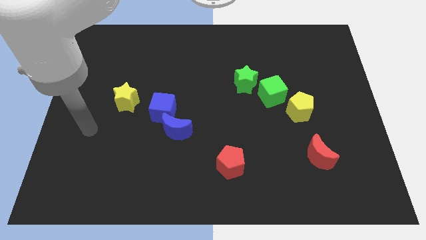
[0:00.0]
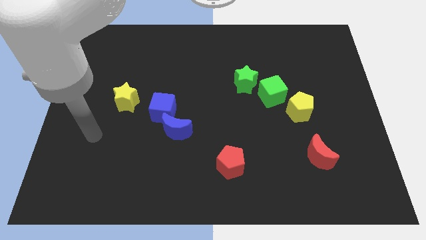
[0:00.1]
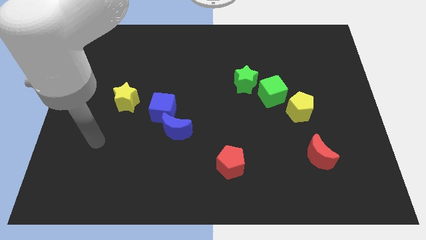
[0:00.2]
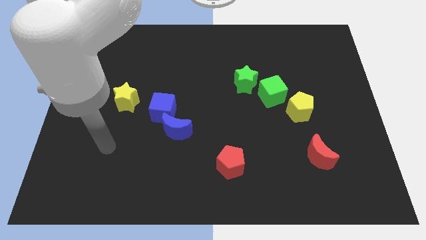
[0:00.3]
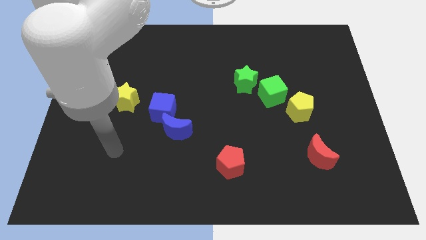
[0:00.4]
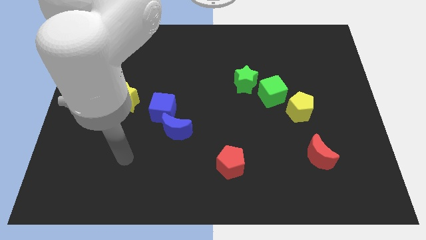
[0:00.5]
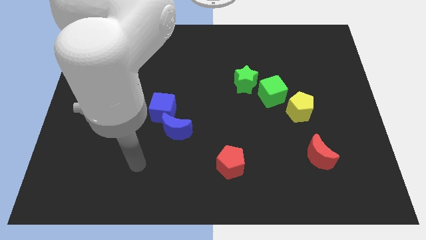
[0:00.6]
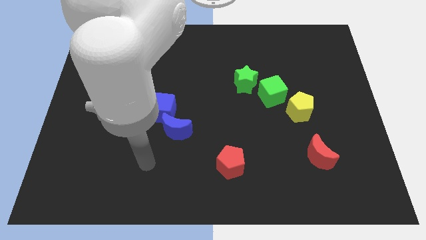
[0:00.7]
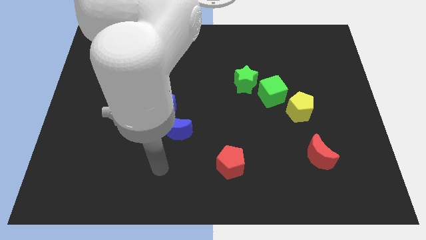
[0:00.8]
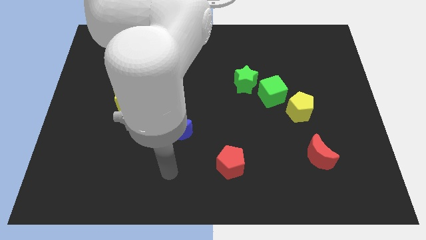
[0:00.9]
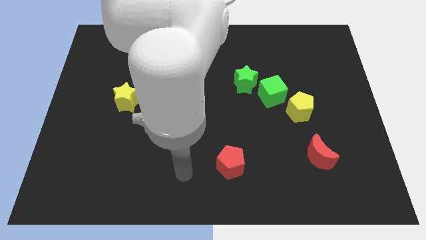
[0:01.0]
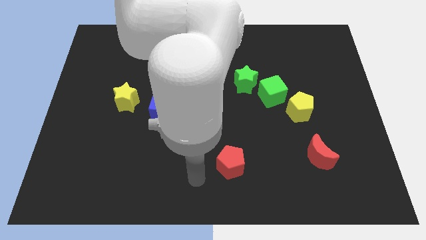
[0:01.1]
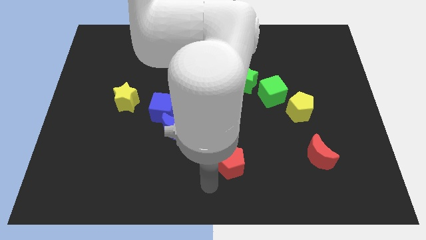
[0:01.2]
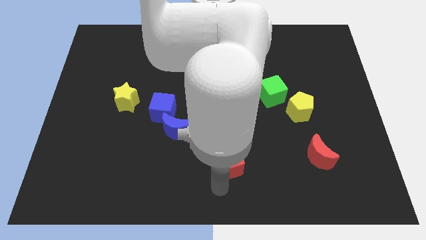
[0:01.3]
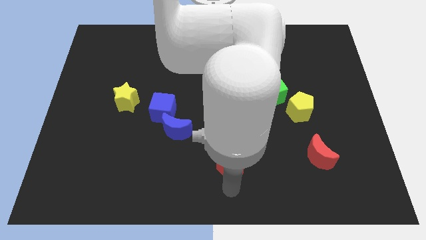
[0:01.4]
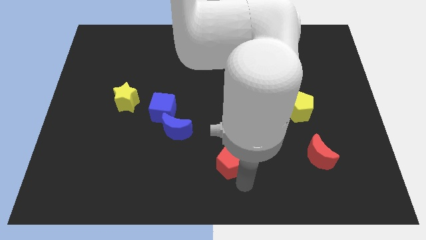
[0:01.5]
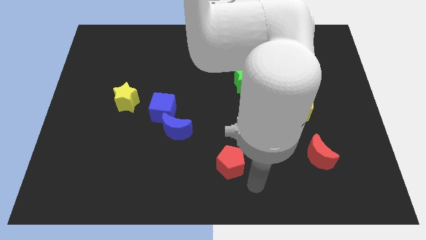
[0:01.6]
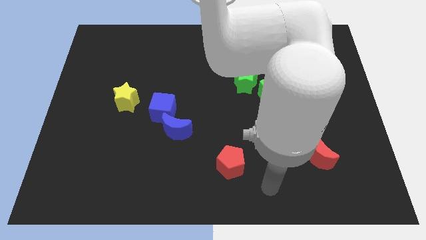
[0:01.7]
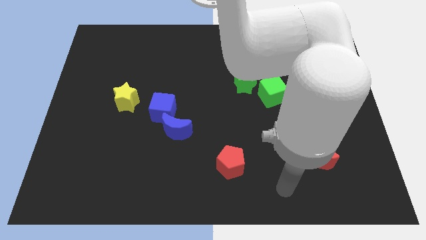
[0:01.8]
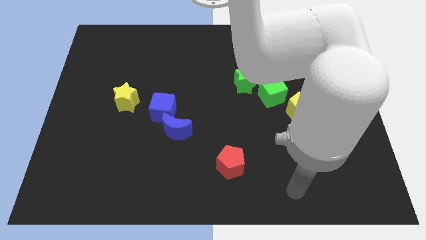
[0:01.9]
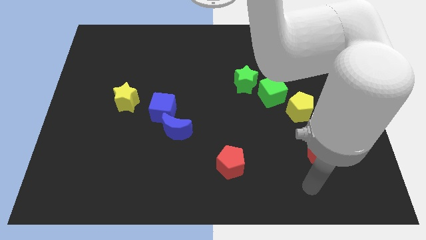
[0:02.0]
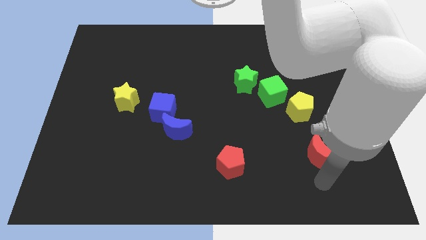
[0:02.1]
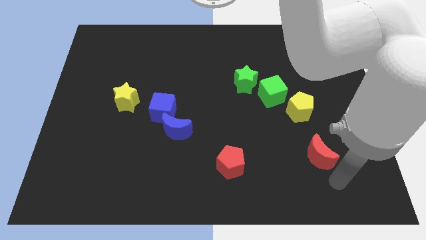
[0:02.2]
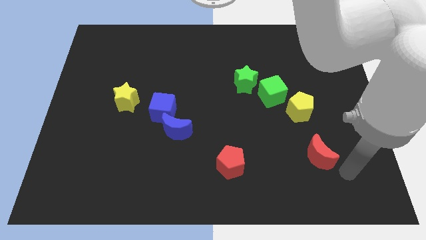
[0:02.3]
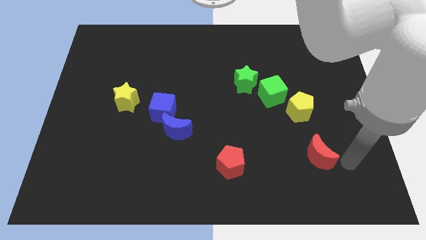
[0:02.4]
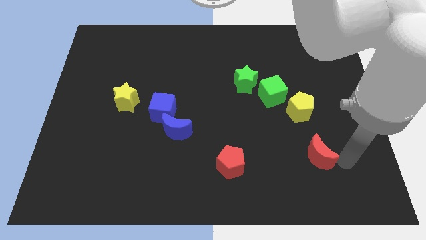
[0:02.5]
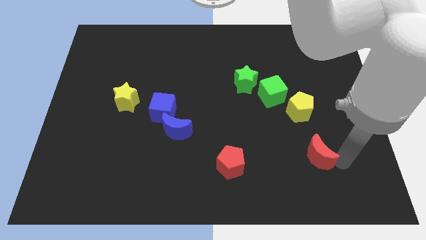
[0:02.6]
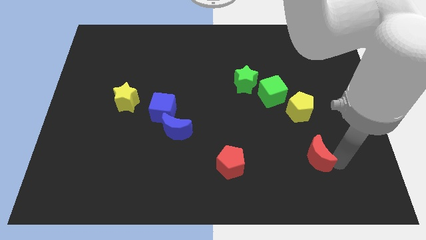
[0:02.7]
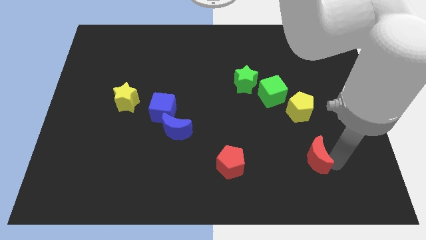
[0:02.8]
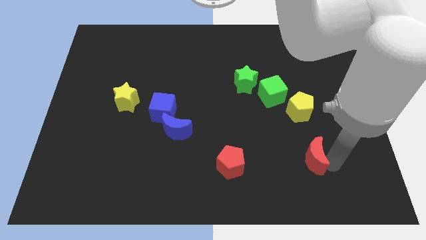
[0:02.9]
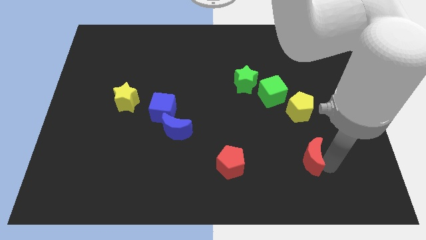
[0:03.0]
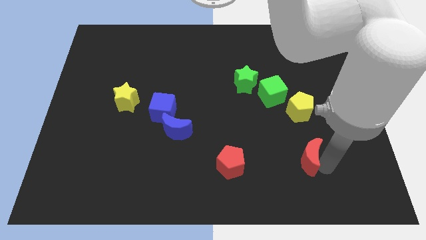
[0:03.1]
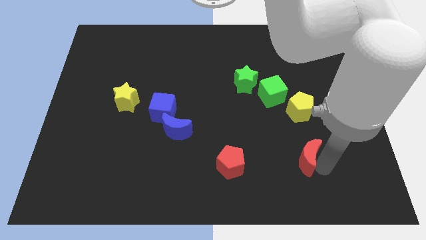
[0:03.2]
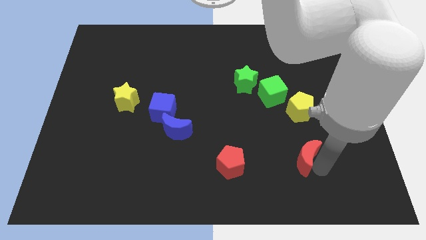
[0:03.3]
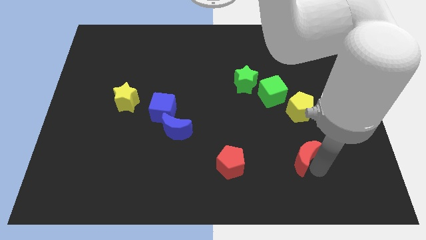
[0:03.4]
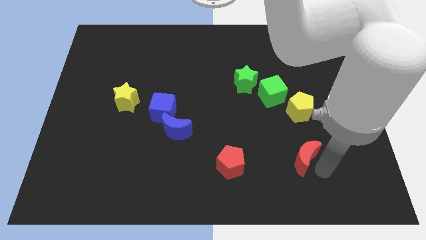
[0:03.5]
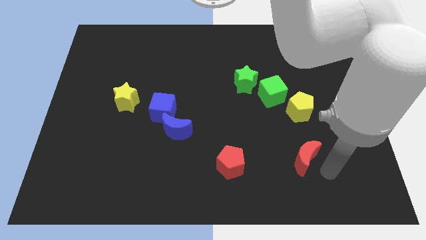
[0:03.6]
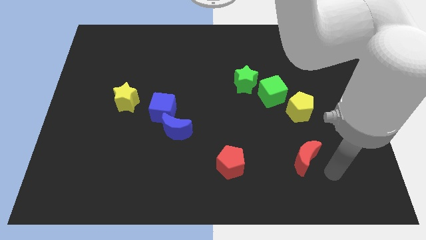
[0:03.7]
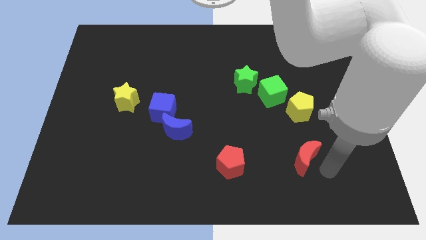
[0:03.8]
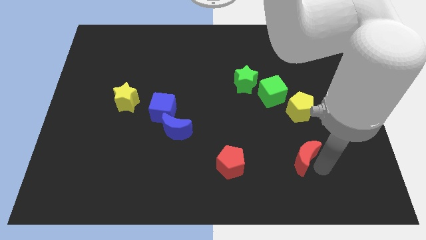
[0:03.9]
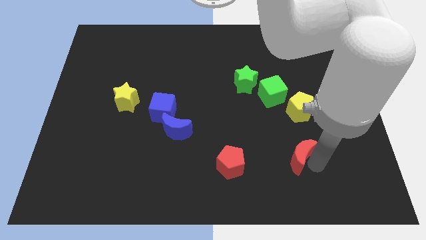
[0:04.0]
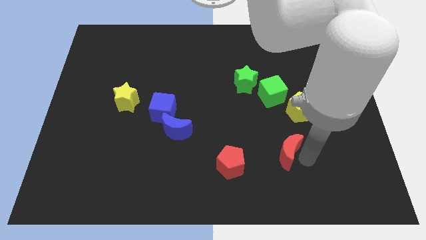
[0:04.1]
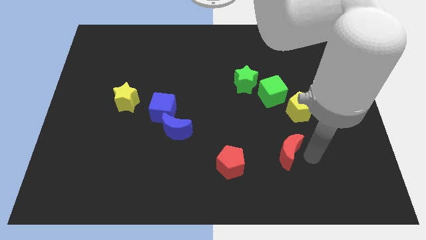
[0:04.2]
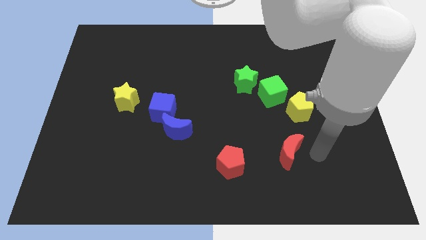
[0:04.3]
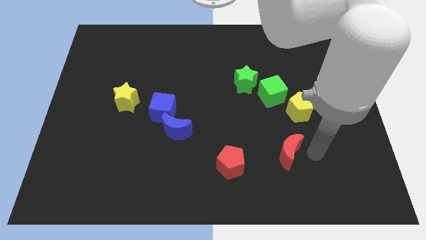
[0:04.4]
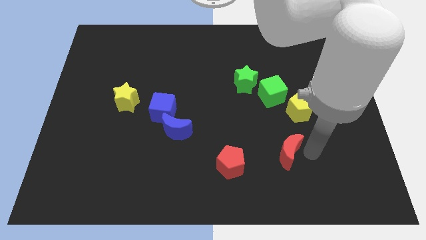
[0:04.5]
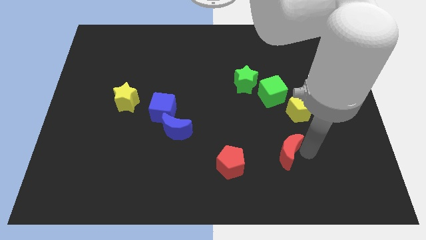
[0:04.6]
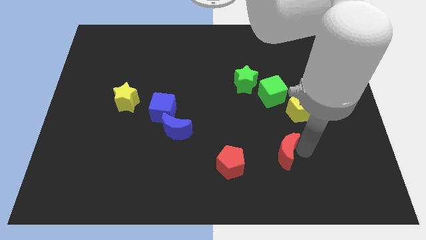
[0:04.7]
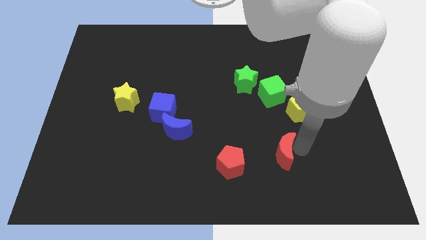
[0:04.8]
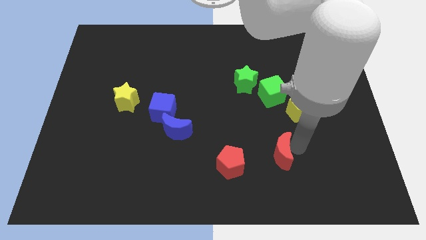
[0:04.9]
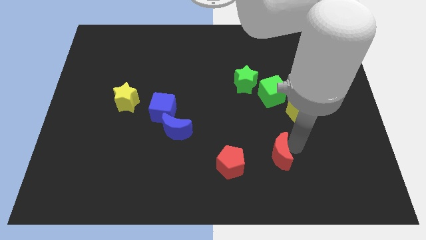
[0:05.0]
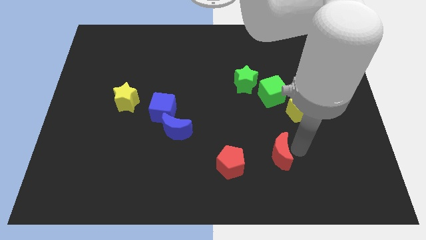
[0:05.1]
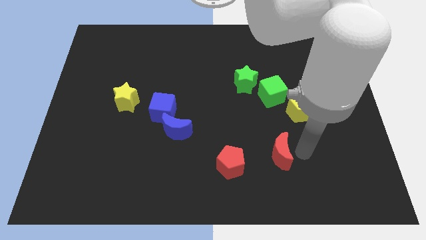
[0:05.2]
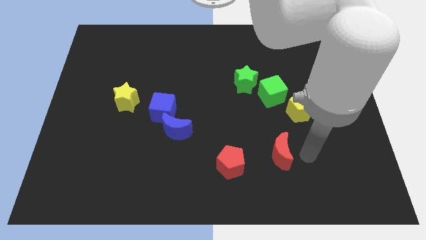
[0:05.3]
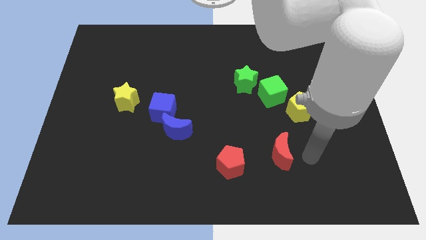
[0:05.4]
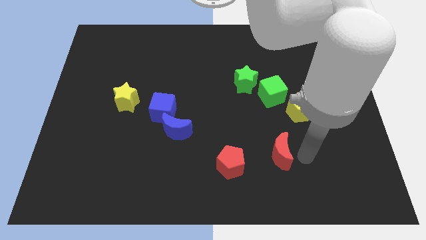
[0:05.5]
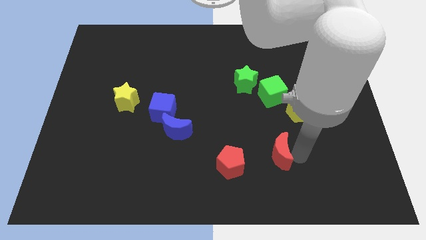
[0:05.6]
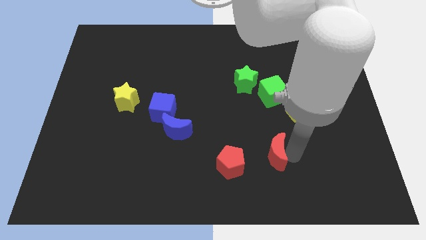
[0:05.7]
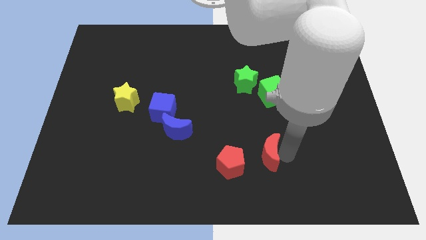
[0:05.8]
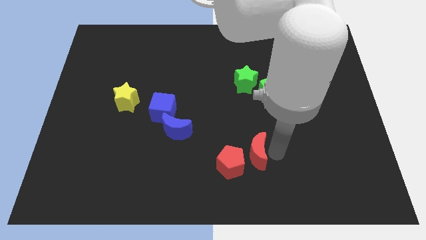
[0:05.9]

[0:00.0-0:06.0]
move the red moon to the red pentagon

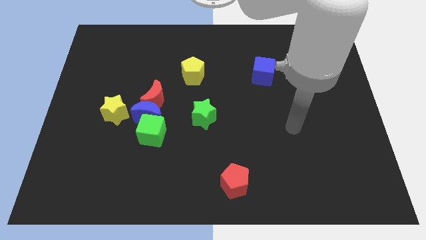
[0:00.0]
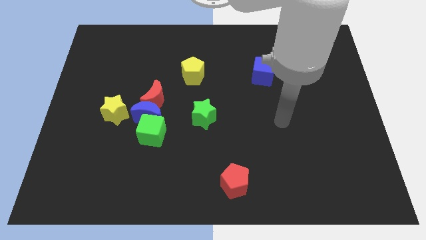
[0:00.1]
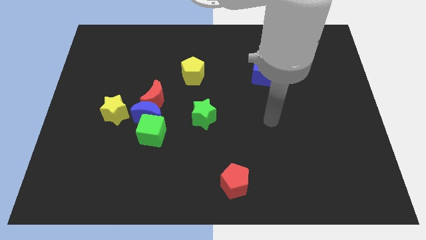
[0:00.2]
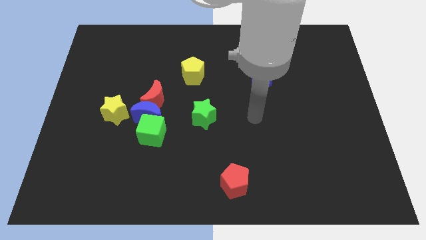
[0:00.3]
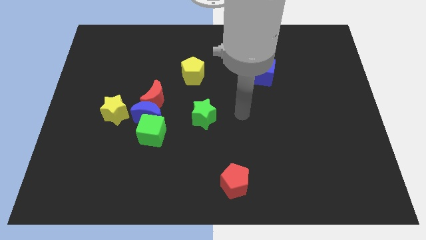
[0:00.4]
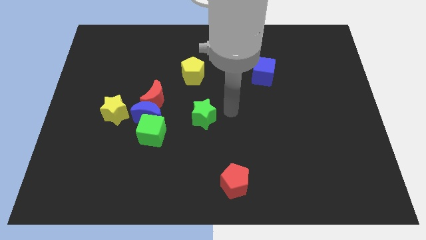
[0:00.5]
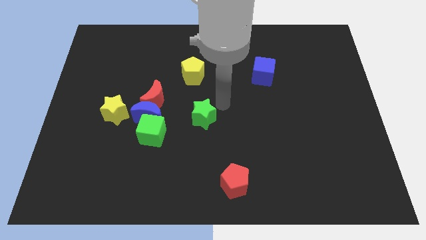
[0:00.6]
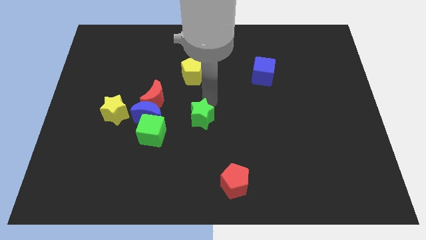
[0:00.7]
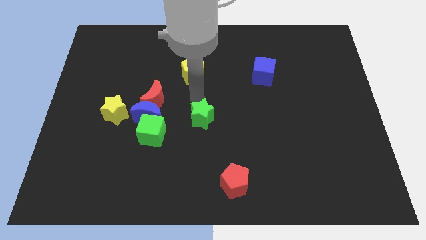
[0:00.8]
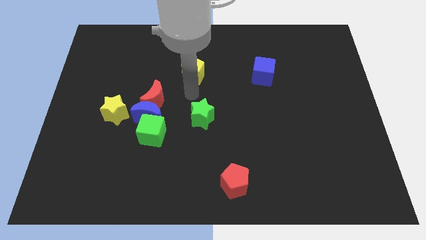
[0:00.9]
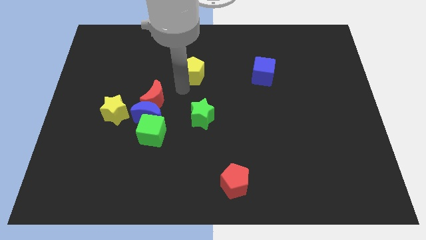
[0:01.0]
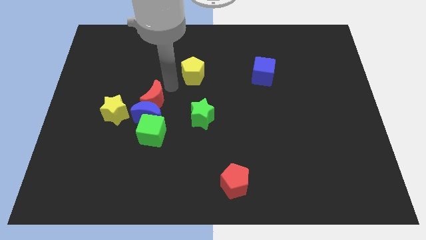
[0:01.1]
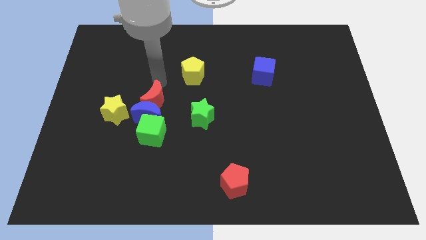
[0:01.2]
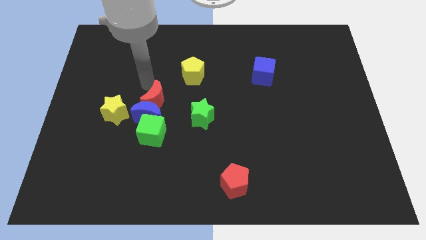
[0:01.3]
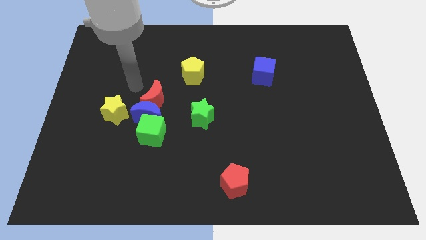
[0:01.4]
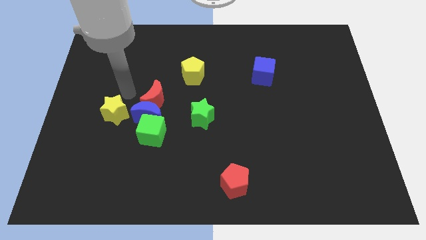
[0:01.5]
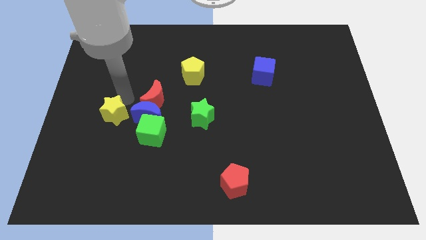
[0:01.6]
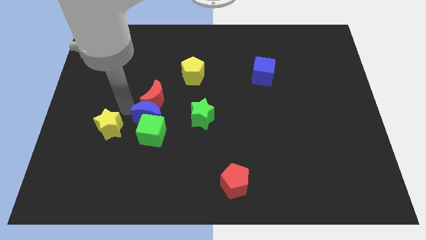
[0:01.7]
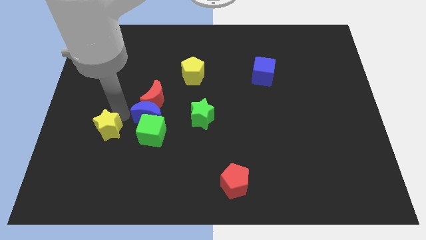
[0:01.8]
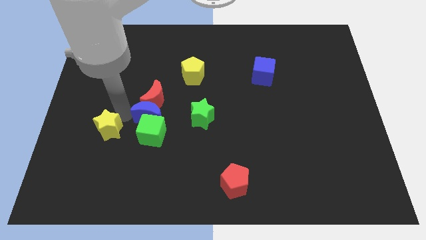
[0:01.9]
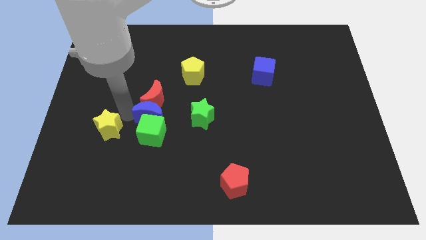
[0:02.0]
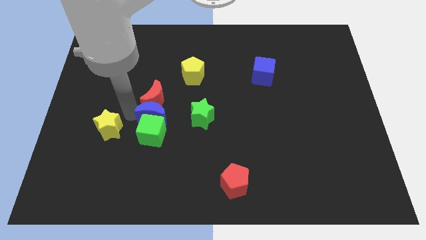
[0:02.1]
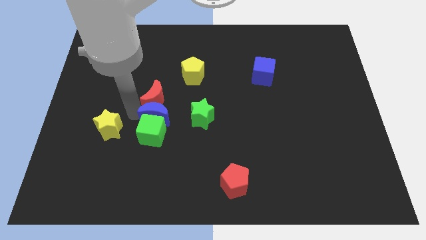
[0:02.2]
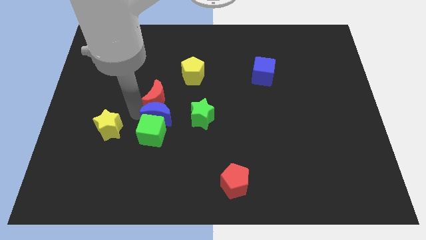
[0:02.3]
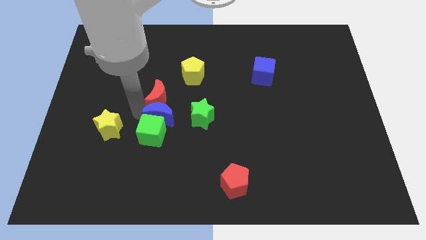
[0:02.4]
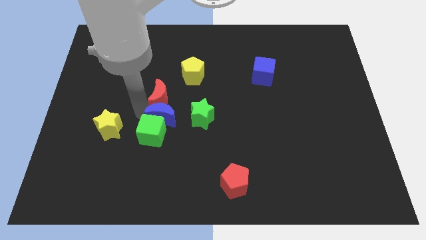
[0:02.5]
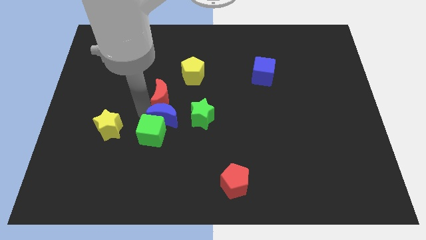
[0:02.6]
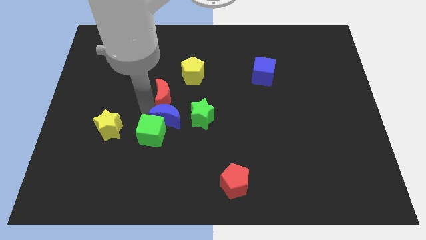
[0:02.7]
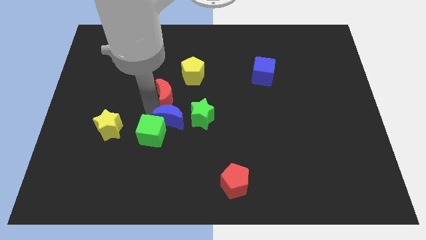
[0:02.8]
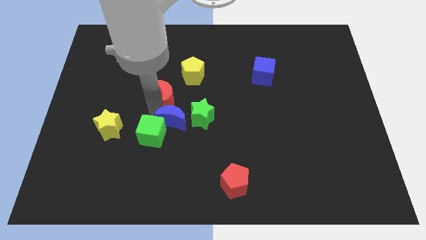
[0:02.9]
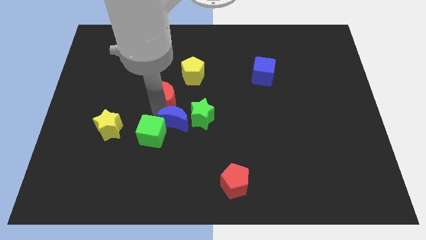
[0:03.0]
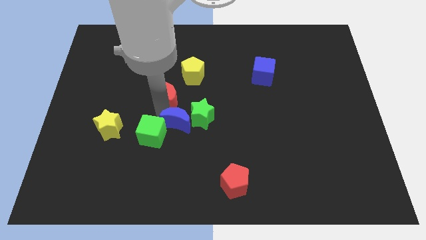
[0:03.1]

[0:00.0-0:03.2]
push the blue moon to the green star
